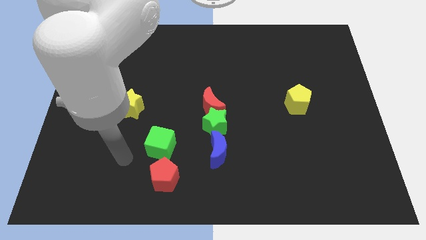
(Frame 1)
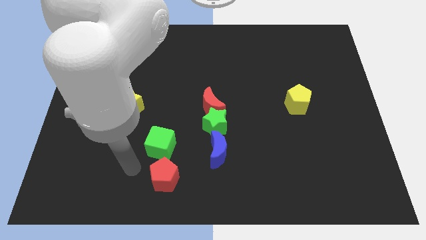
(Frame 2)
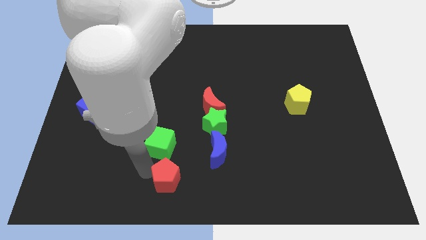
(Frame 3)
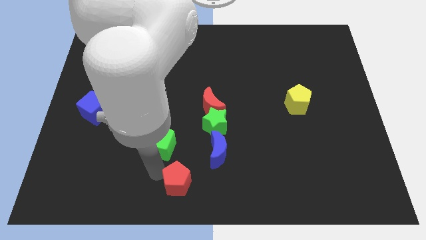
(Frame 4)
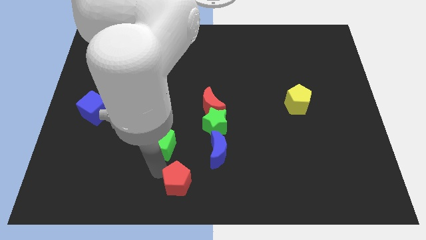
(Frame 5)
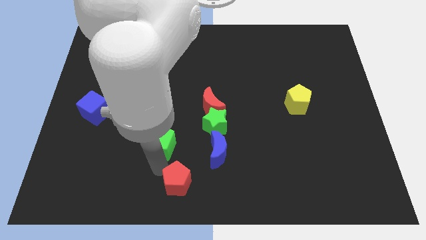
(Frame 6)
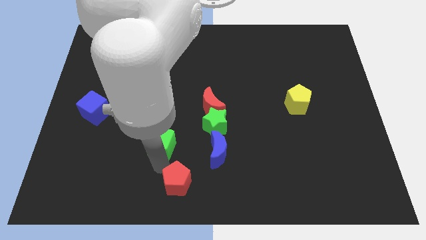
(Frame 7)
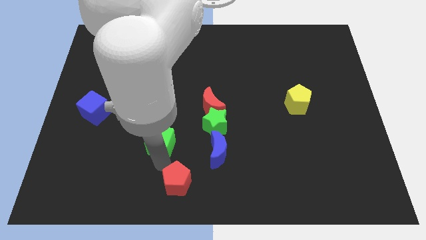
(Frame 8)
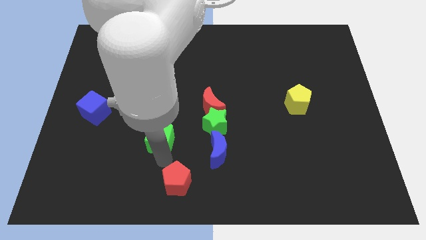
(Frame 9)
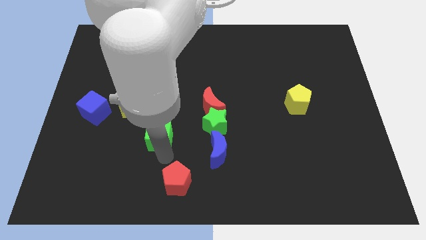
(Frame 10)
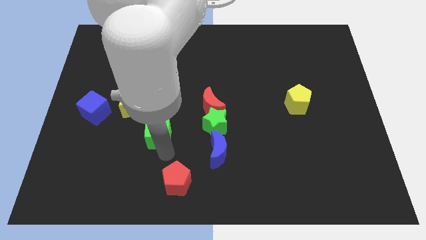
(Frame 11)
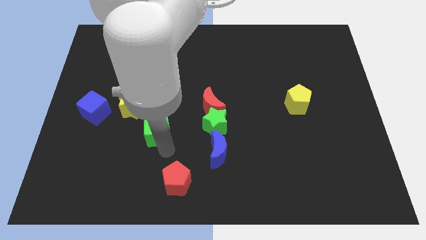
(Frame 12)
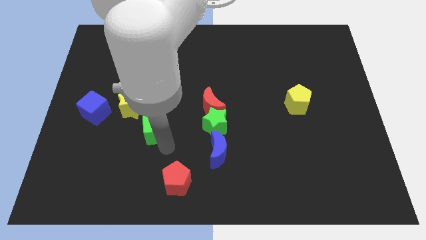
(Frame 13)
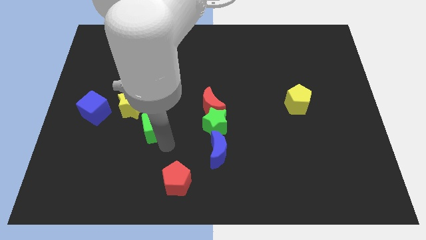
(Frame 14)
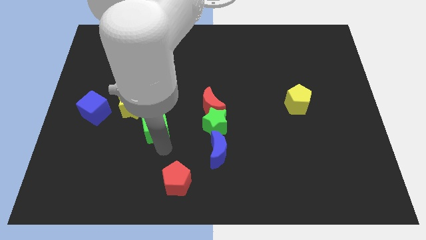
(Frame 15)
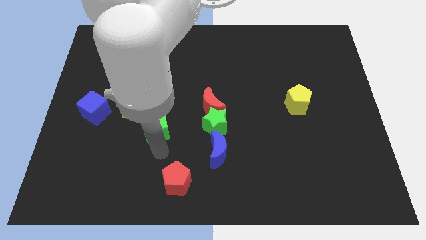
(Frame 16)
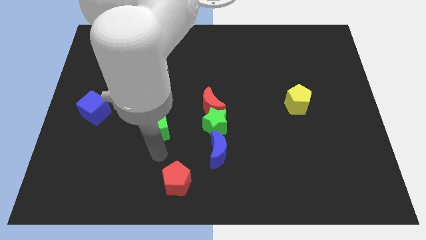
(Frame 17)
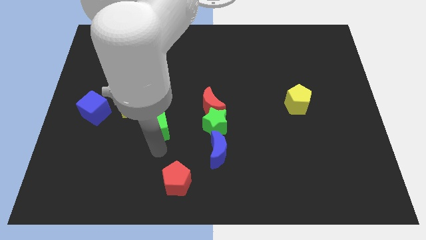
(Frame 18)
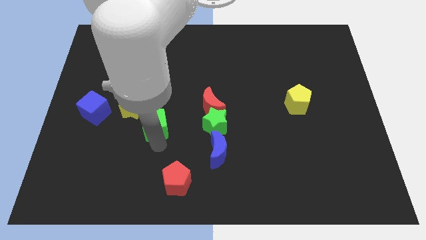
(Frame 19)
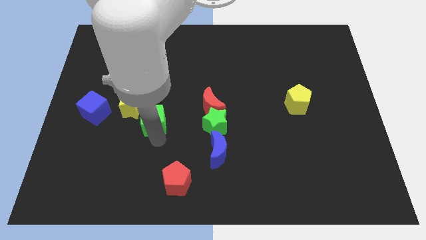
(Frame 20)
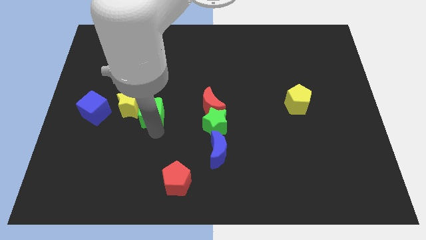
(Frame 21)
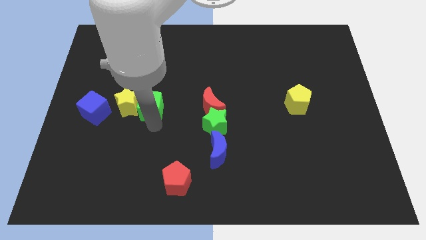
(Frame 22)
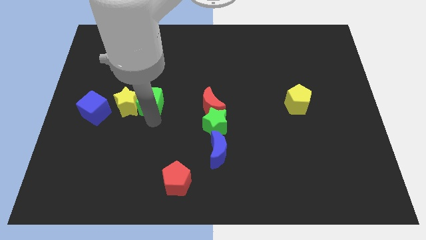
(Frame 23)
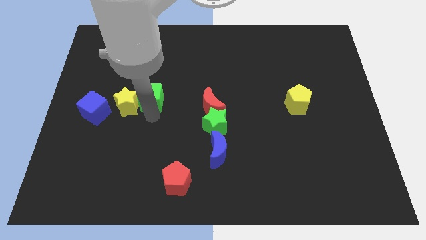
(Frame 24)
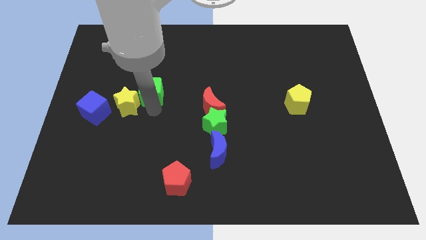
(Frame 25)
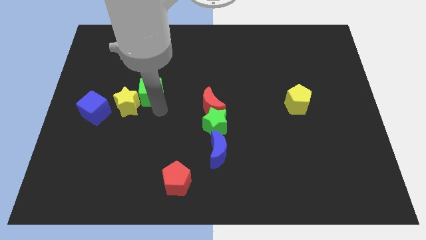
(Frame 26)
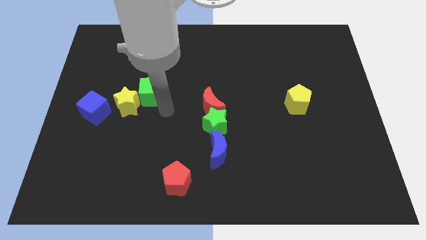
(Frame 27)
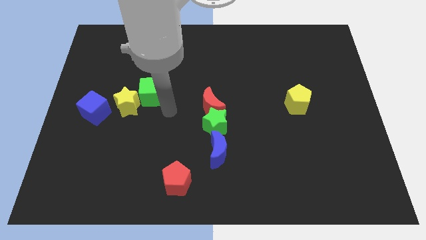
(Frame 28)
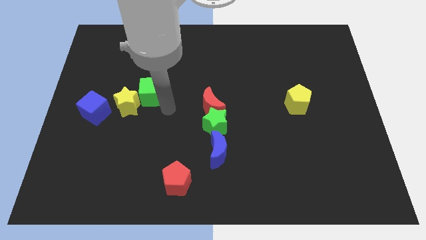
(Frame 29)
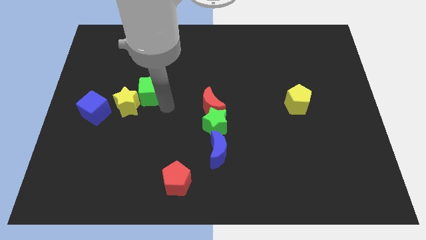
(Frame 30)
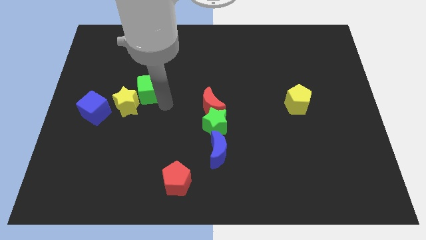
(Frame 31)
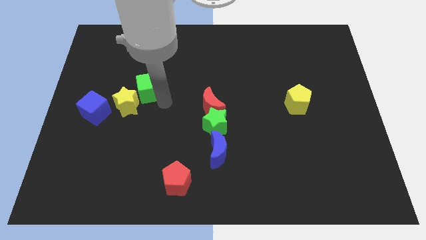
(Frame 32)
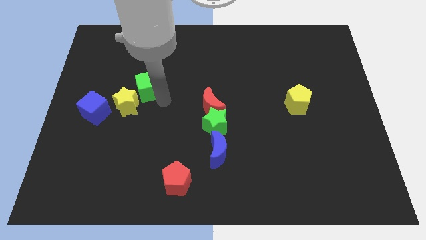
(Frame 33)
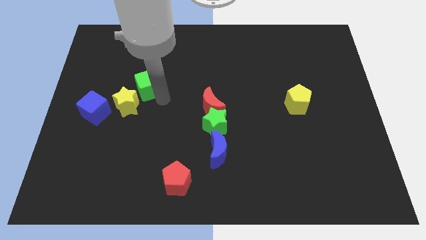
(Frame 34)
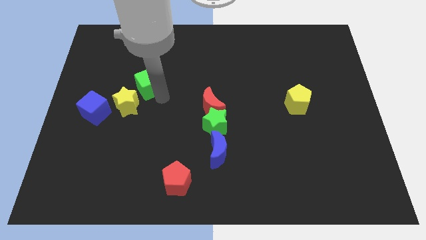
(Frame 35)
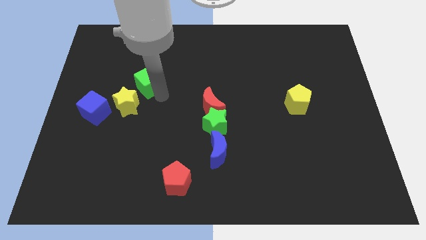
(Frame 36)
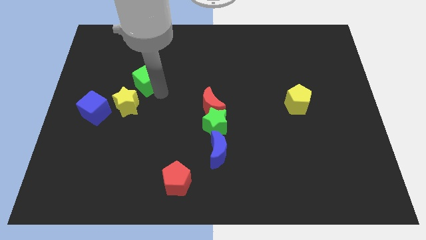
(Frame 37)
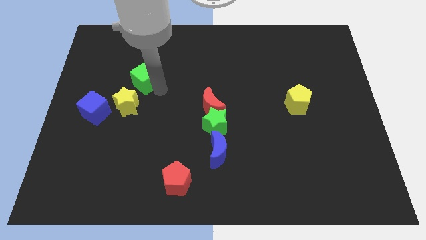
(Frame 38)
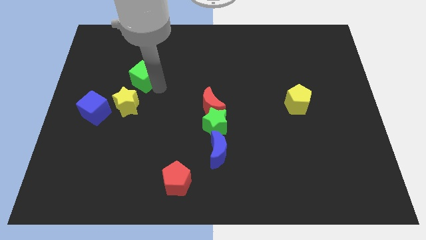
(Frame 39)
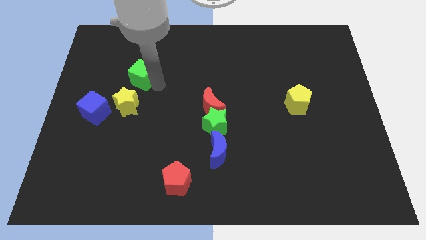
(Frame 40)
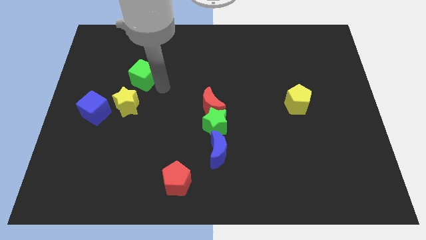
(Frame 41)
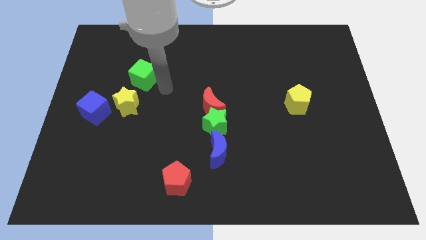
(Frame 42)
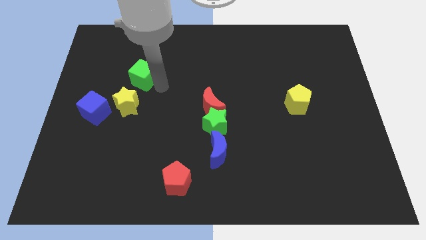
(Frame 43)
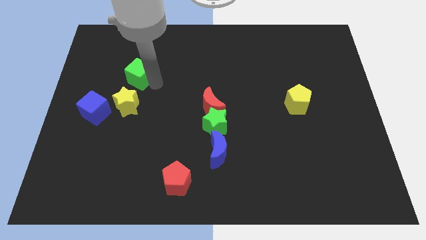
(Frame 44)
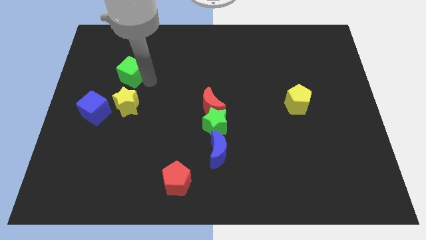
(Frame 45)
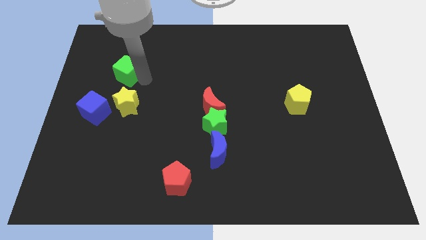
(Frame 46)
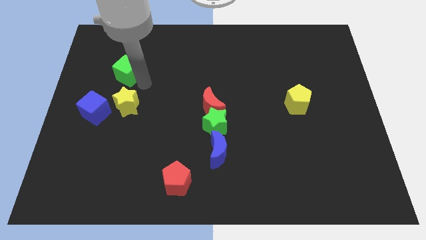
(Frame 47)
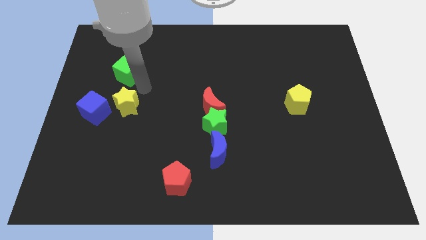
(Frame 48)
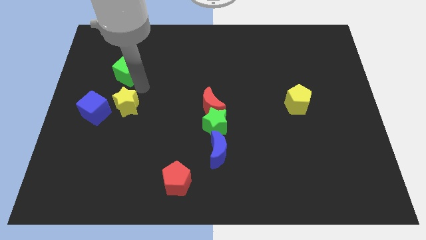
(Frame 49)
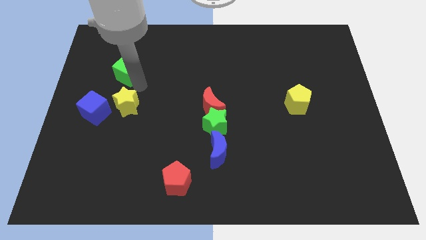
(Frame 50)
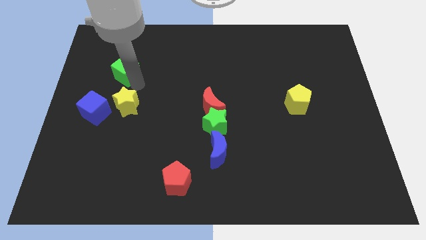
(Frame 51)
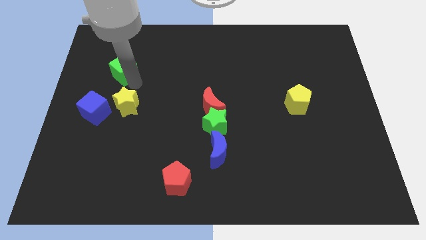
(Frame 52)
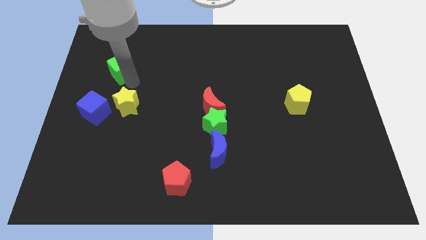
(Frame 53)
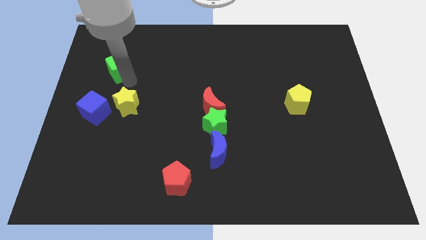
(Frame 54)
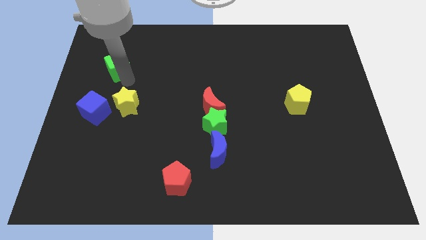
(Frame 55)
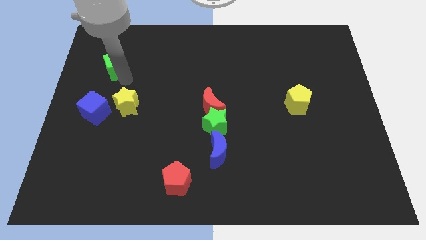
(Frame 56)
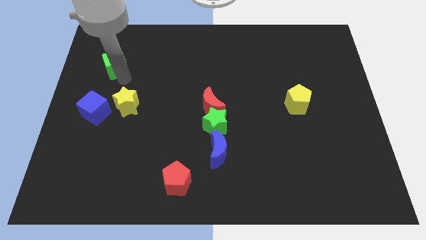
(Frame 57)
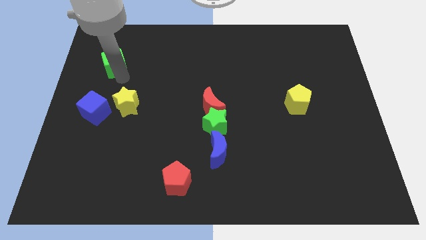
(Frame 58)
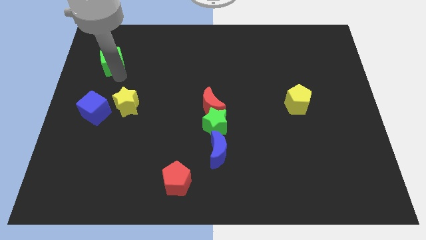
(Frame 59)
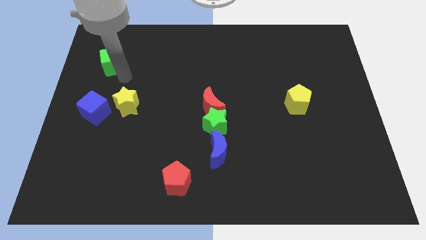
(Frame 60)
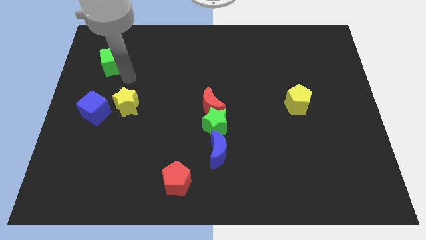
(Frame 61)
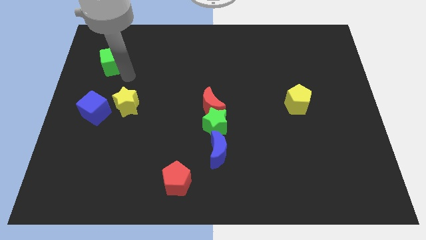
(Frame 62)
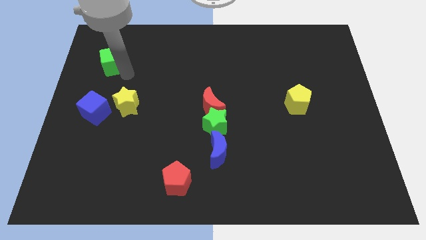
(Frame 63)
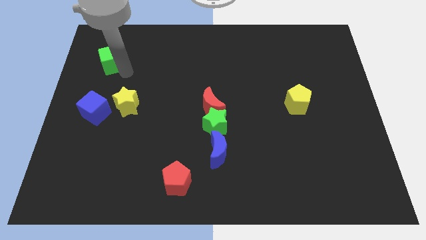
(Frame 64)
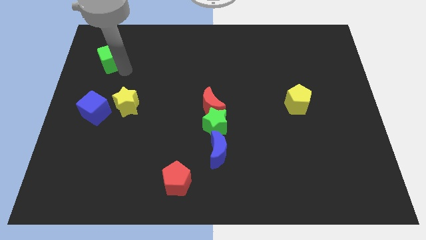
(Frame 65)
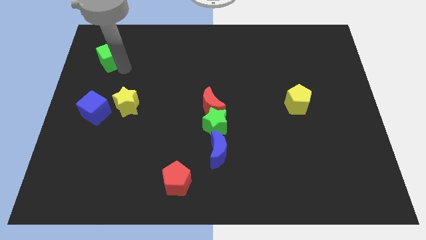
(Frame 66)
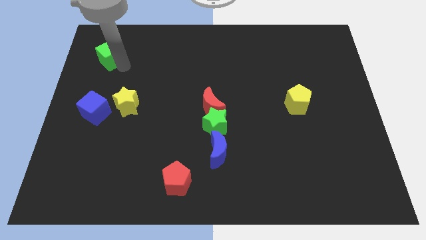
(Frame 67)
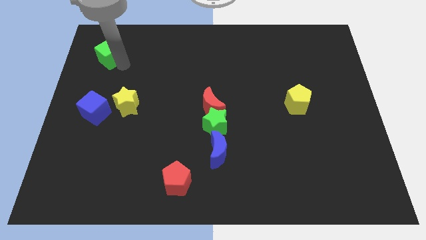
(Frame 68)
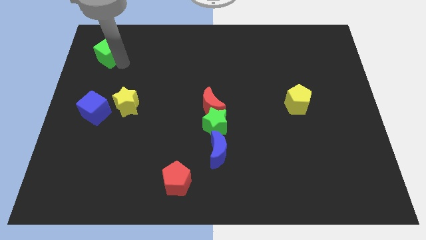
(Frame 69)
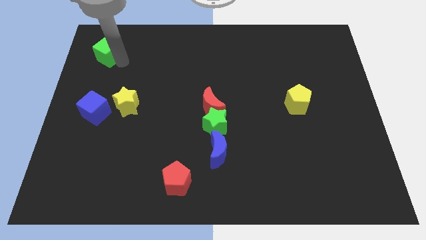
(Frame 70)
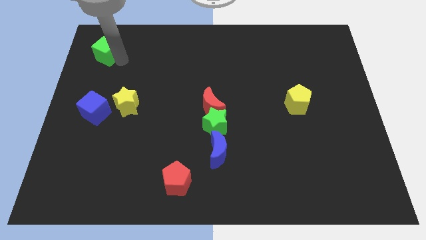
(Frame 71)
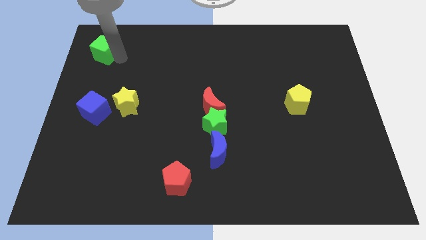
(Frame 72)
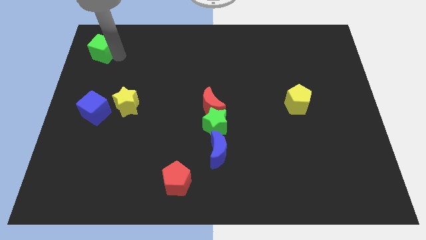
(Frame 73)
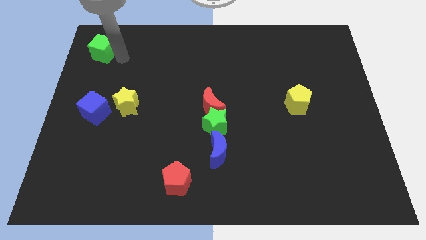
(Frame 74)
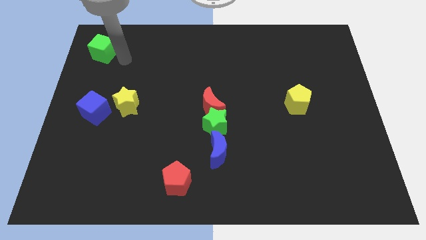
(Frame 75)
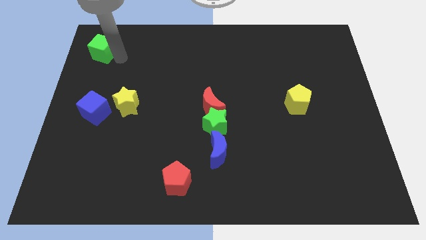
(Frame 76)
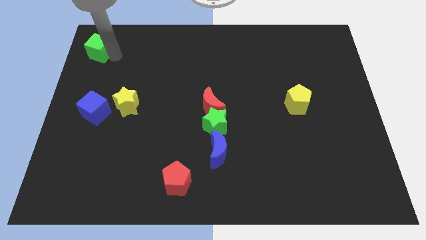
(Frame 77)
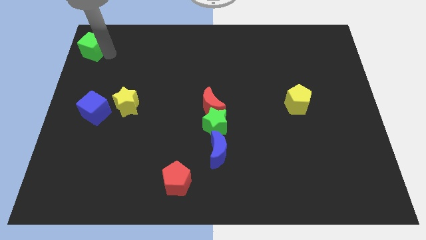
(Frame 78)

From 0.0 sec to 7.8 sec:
put the green cube to the upper left corner
